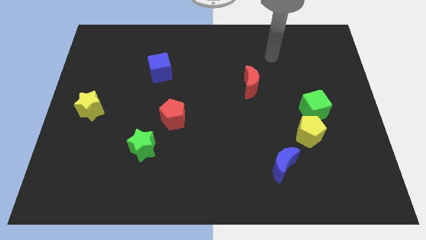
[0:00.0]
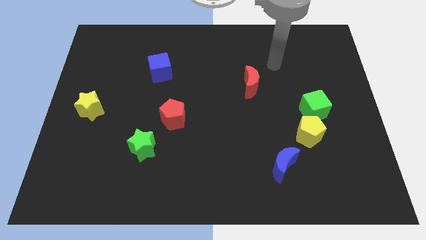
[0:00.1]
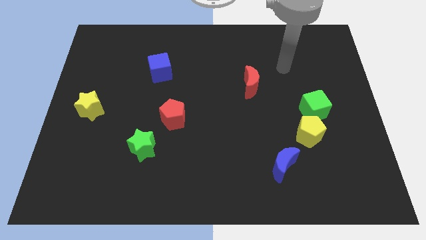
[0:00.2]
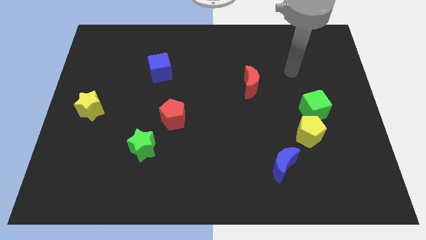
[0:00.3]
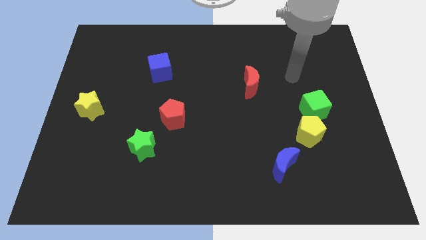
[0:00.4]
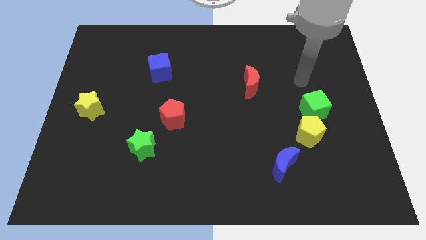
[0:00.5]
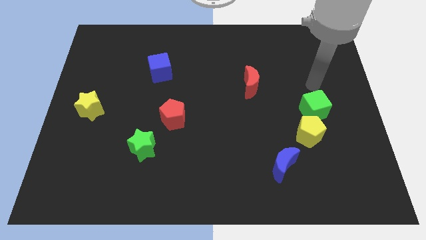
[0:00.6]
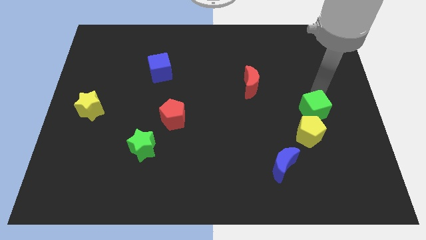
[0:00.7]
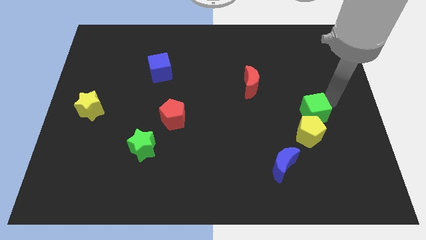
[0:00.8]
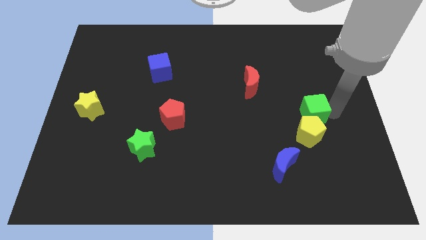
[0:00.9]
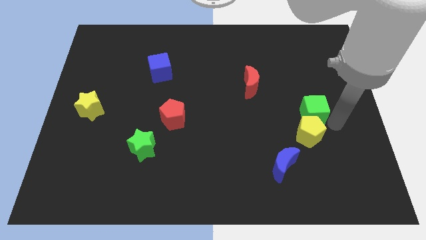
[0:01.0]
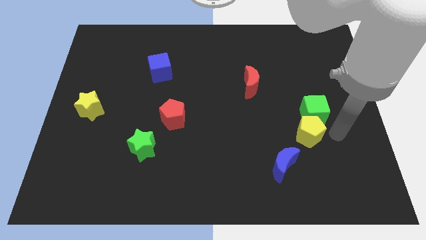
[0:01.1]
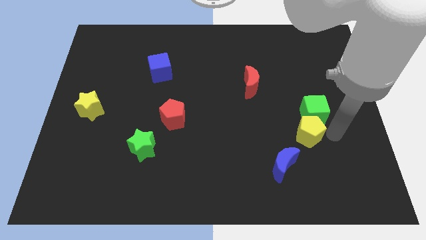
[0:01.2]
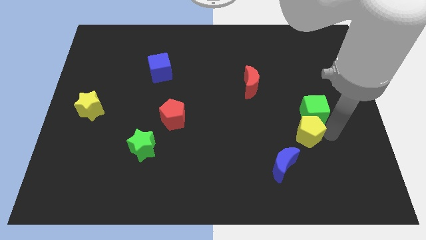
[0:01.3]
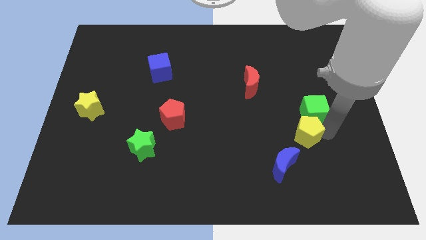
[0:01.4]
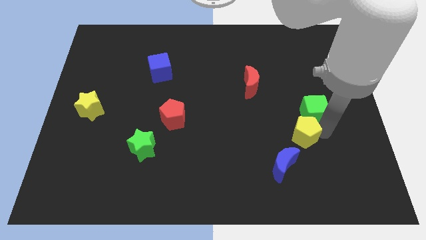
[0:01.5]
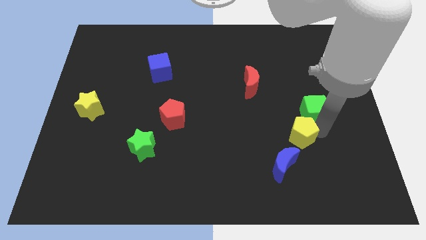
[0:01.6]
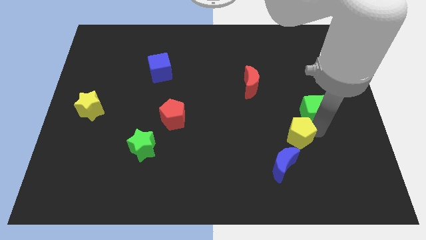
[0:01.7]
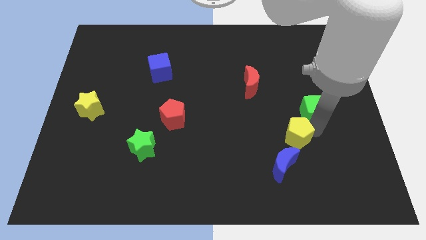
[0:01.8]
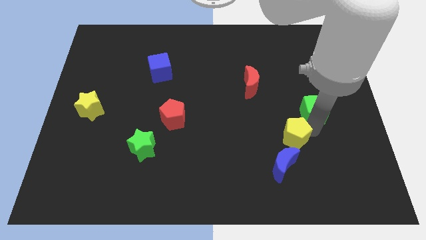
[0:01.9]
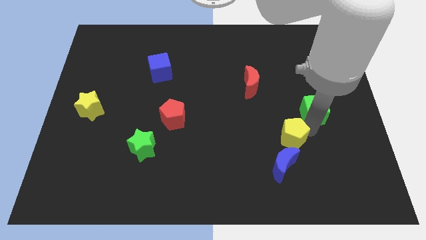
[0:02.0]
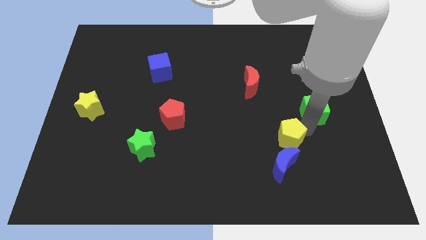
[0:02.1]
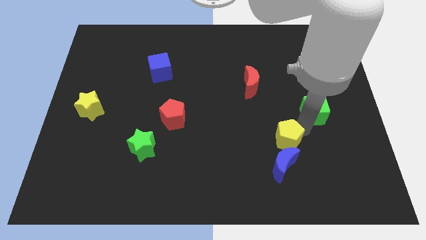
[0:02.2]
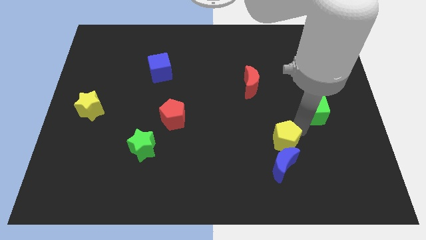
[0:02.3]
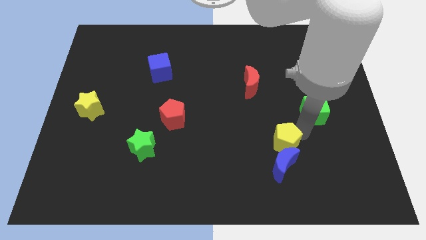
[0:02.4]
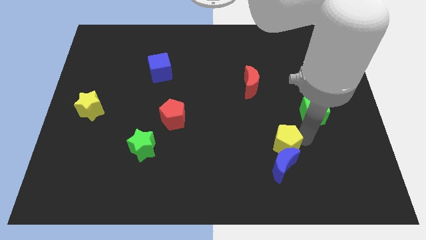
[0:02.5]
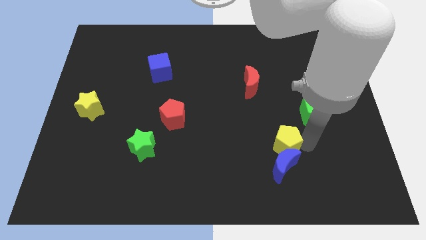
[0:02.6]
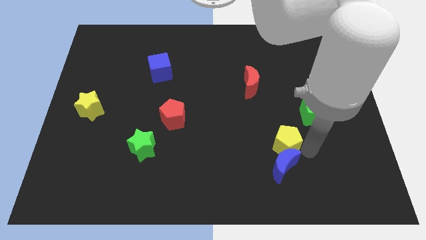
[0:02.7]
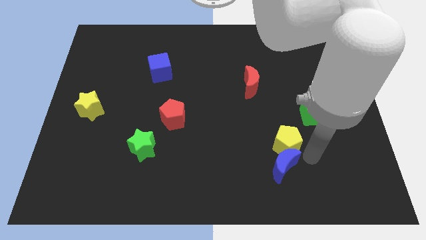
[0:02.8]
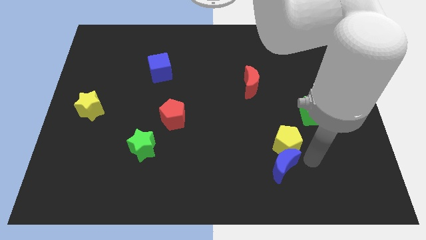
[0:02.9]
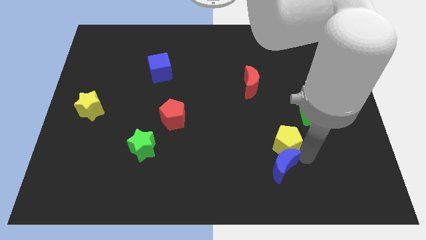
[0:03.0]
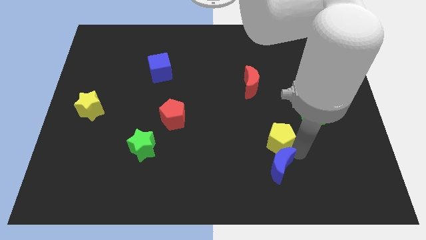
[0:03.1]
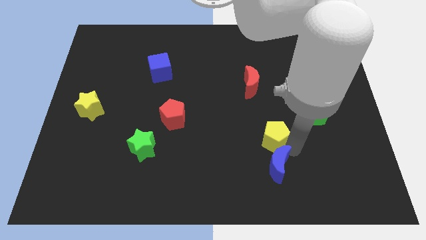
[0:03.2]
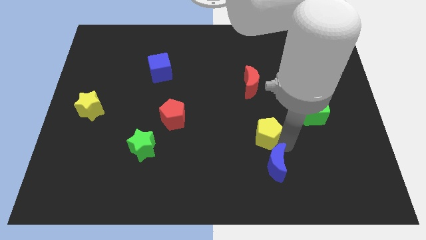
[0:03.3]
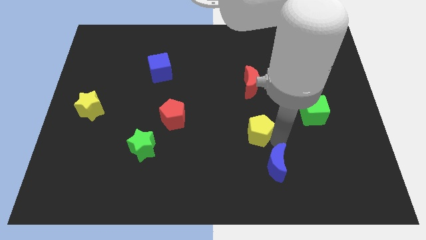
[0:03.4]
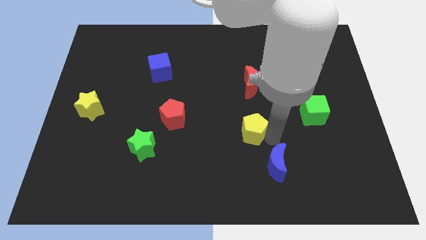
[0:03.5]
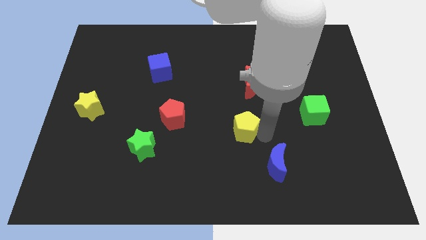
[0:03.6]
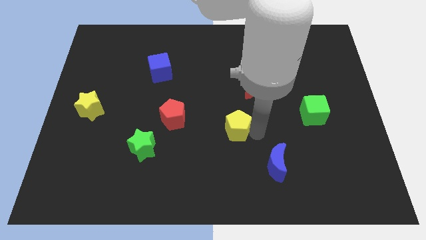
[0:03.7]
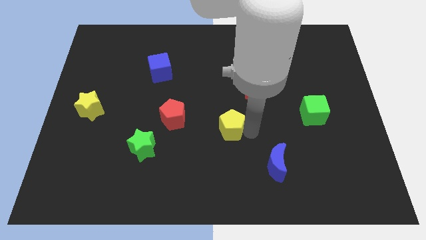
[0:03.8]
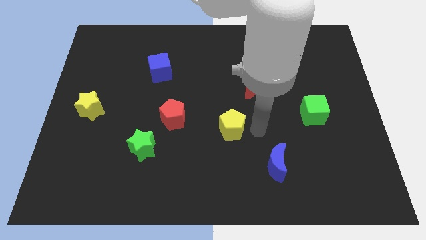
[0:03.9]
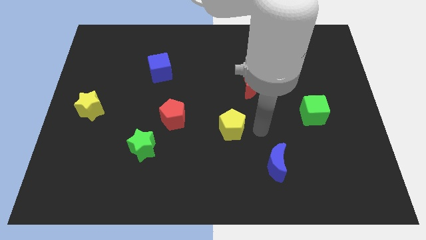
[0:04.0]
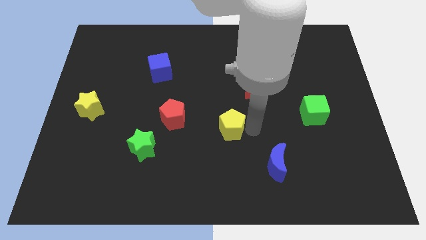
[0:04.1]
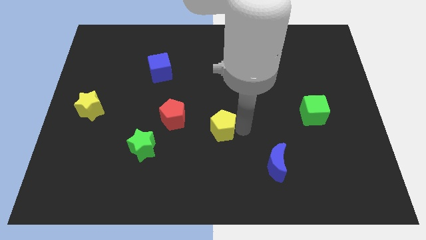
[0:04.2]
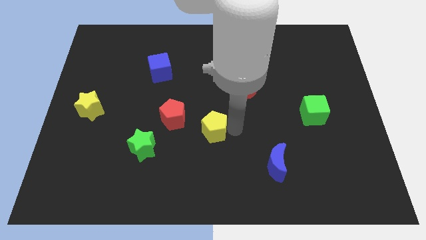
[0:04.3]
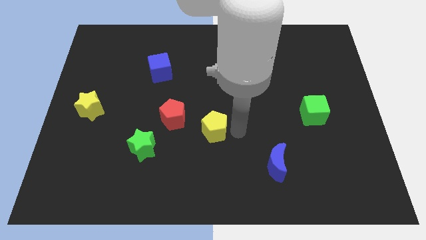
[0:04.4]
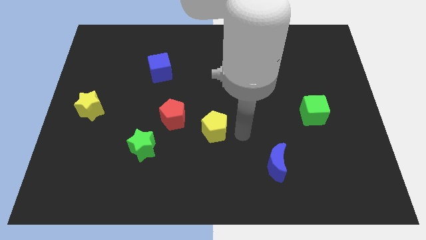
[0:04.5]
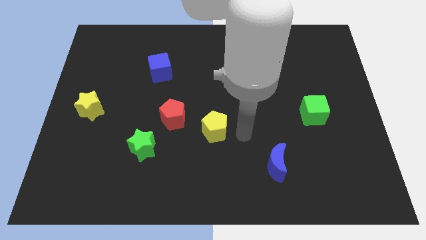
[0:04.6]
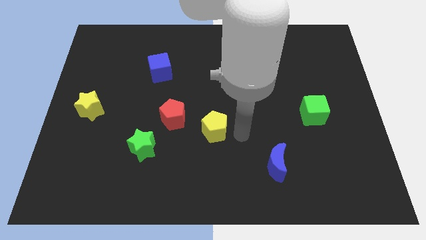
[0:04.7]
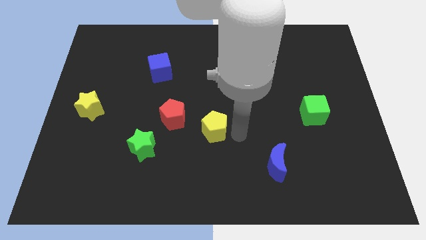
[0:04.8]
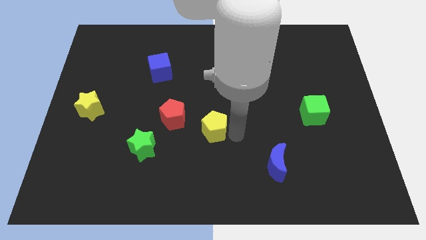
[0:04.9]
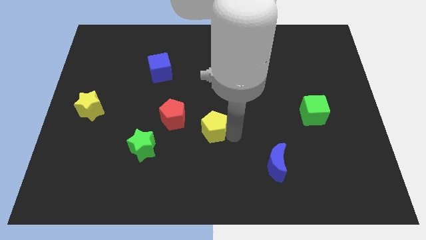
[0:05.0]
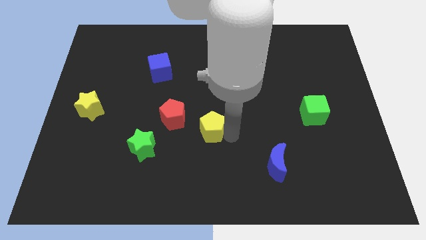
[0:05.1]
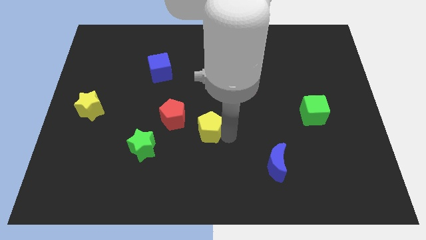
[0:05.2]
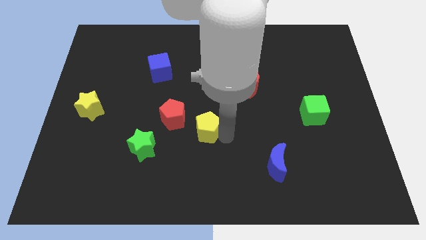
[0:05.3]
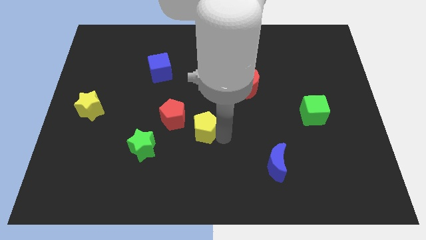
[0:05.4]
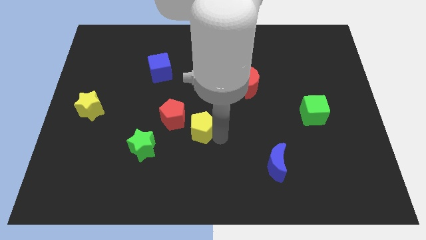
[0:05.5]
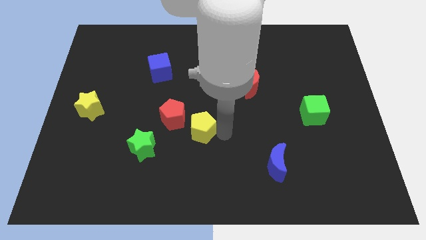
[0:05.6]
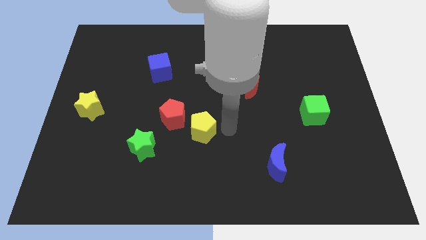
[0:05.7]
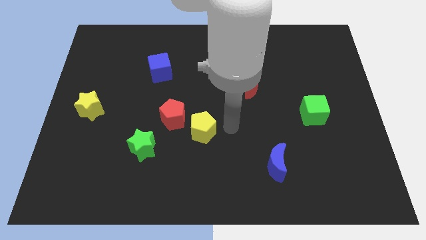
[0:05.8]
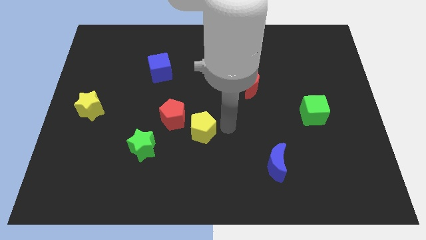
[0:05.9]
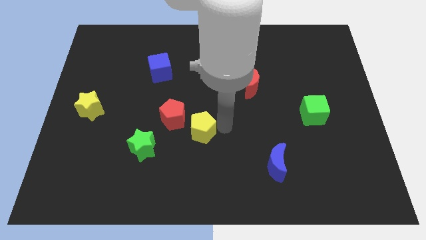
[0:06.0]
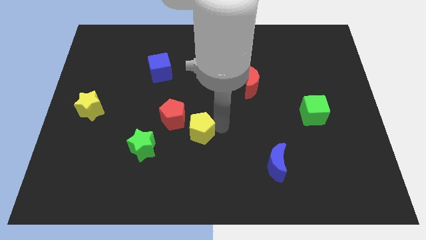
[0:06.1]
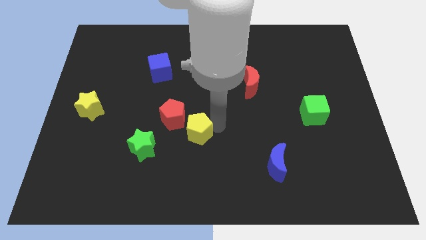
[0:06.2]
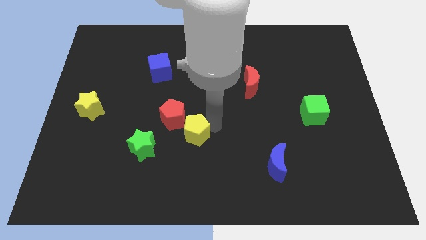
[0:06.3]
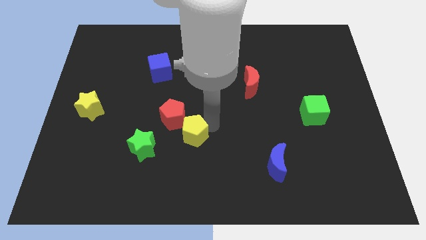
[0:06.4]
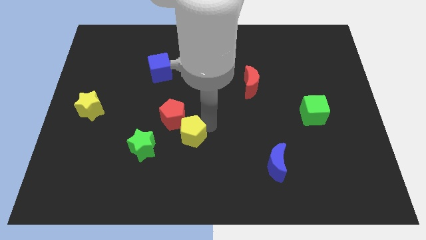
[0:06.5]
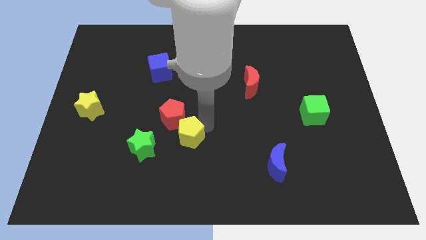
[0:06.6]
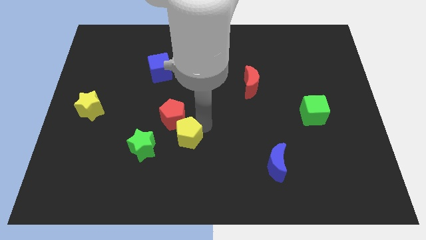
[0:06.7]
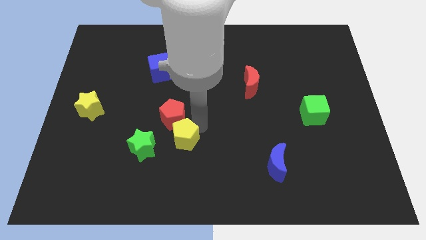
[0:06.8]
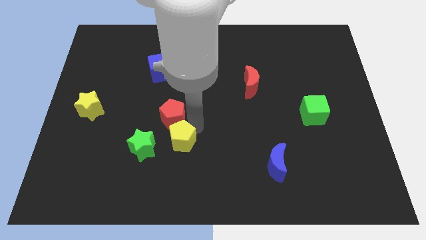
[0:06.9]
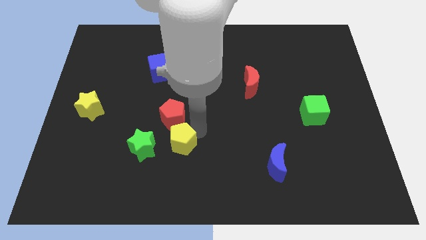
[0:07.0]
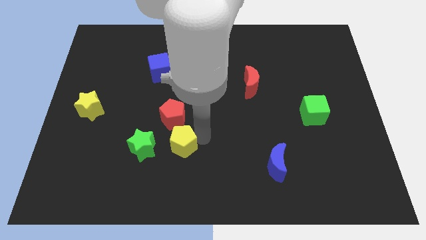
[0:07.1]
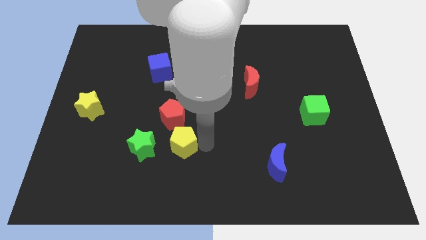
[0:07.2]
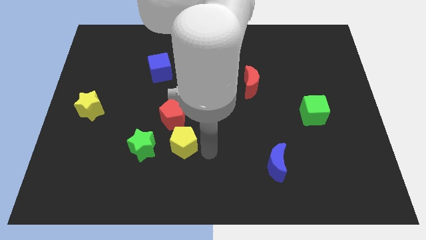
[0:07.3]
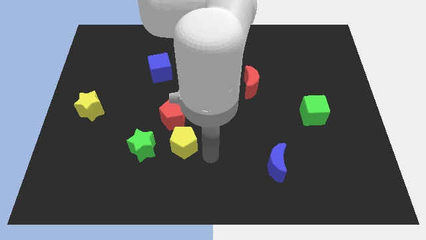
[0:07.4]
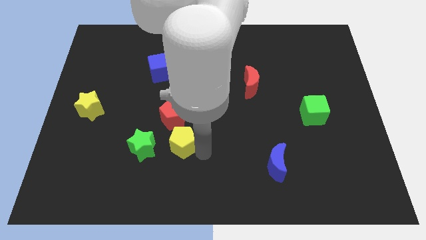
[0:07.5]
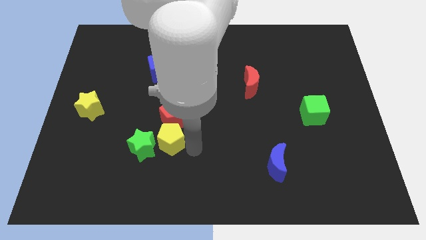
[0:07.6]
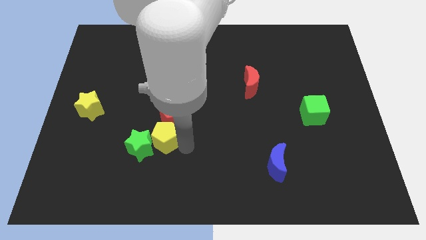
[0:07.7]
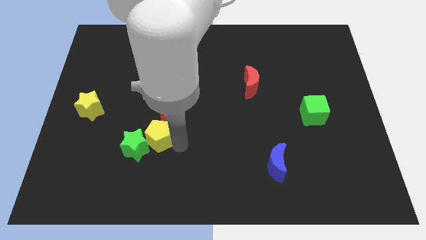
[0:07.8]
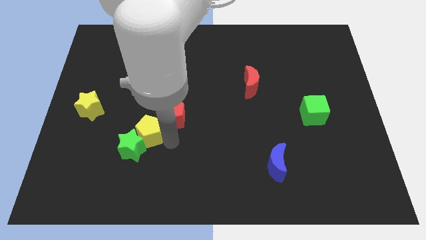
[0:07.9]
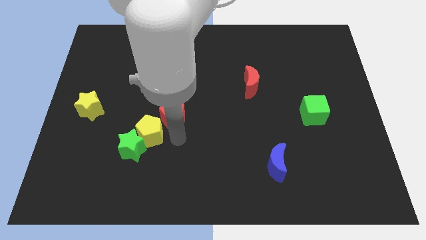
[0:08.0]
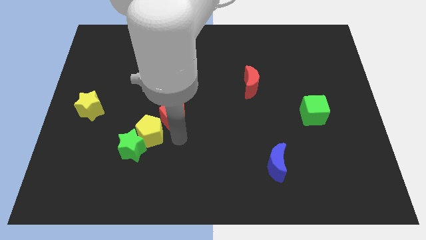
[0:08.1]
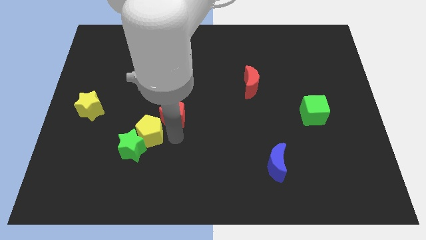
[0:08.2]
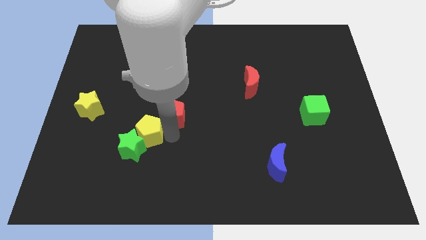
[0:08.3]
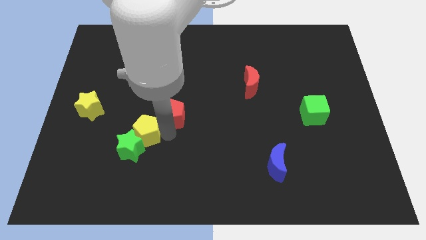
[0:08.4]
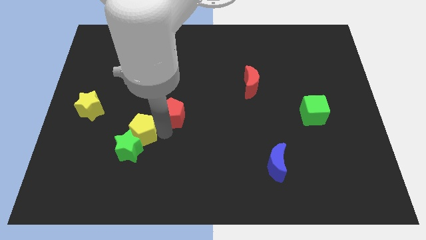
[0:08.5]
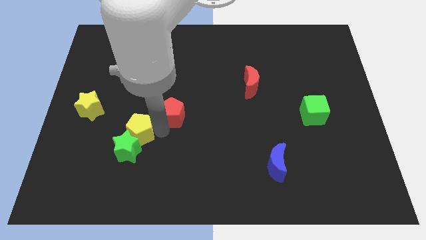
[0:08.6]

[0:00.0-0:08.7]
move the yellow pentagon to the top left of the green star
